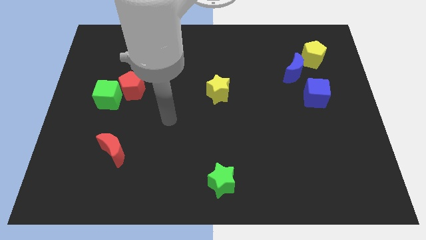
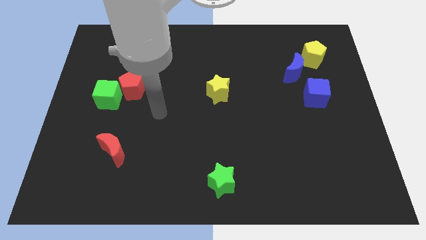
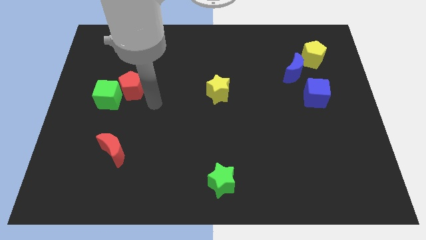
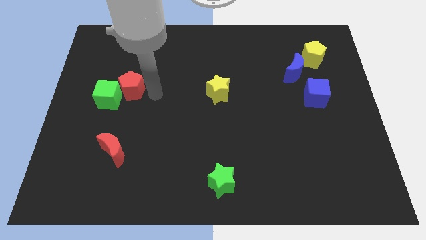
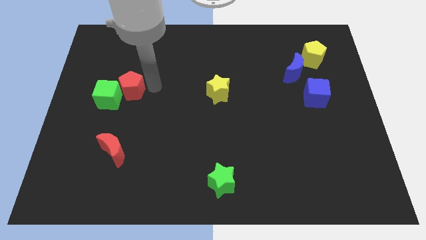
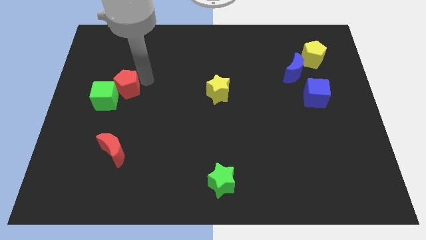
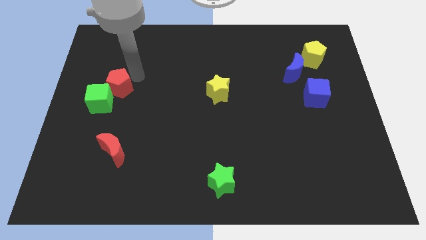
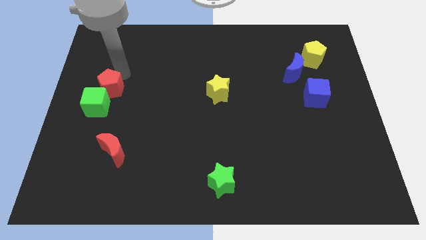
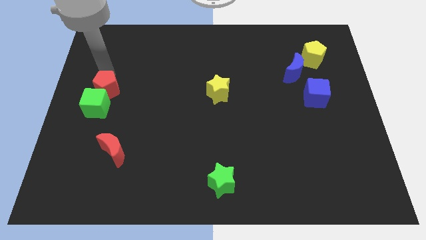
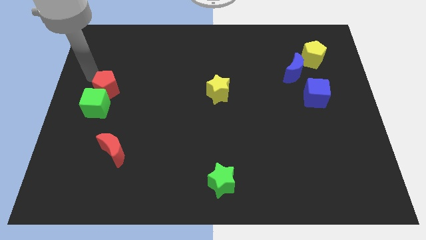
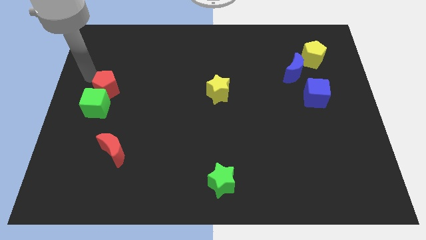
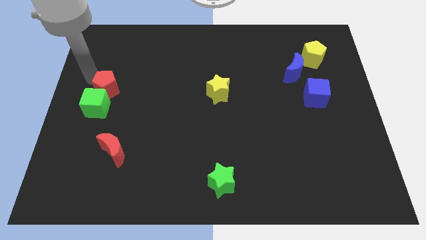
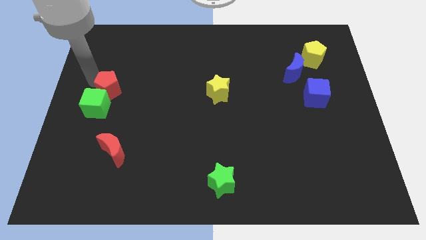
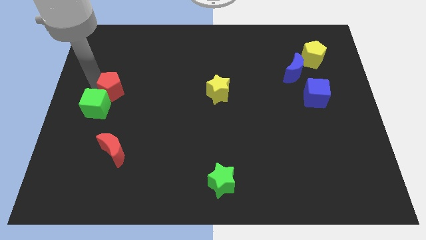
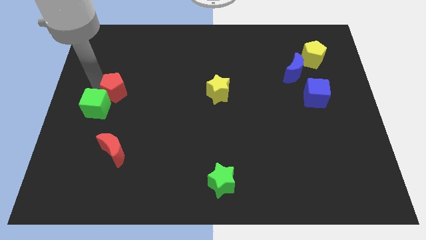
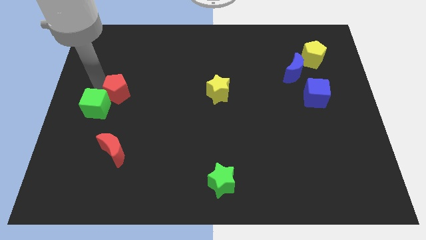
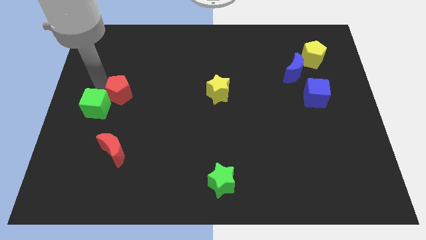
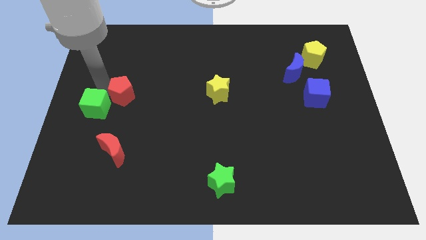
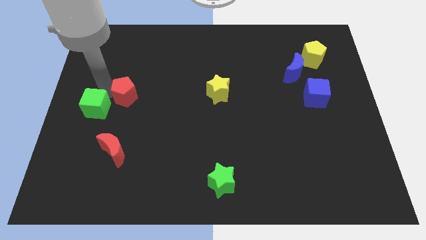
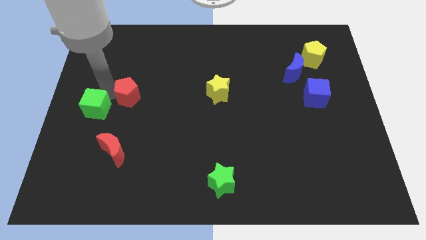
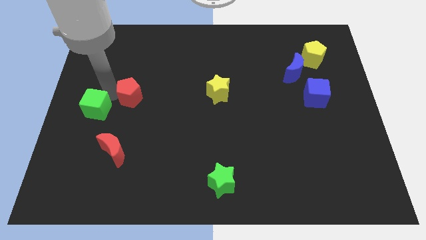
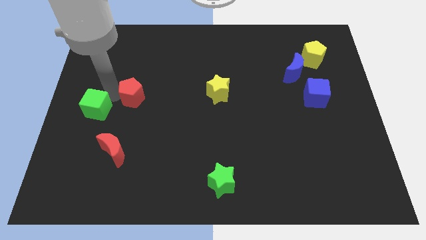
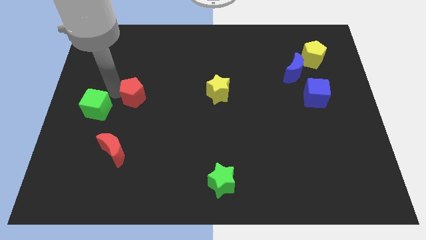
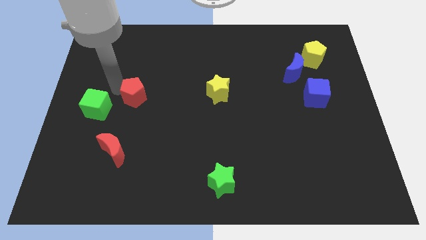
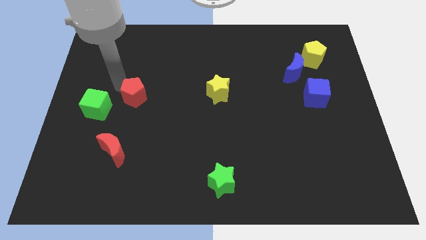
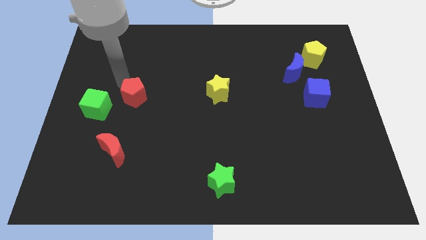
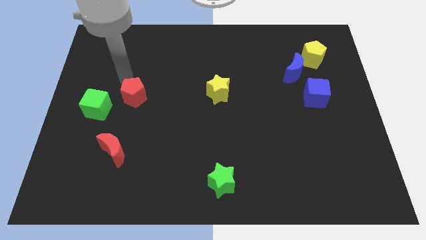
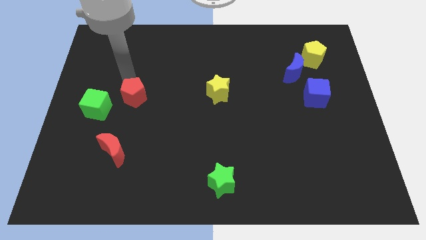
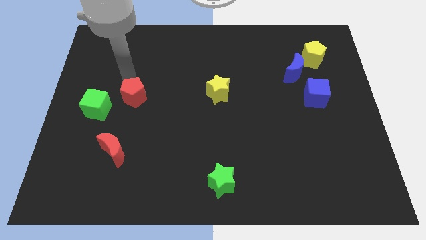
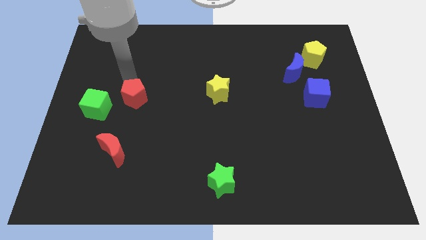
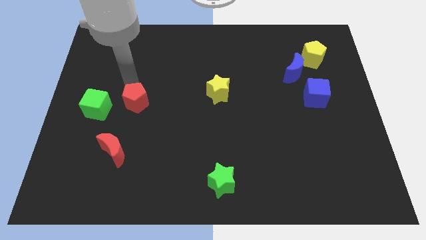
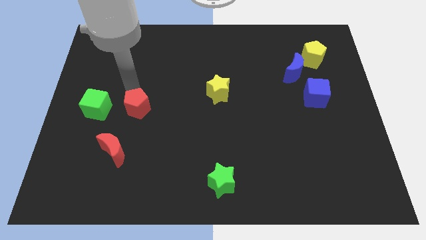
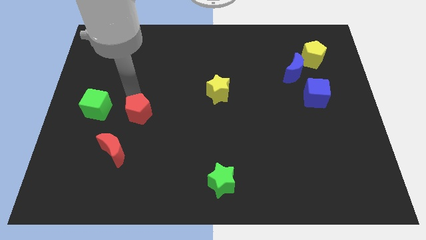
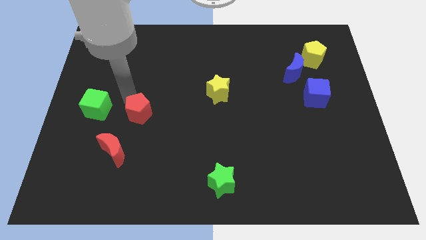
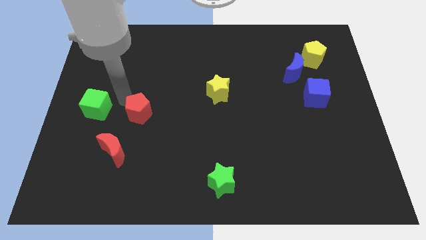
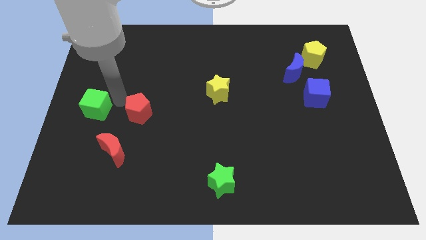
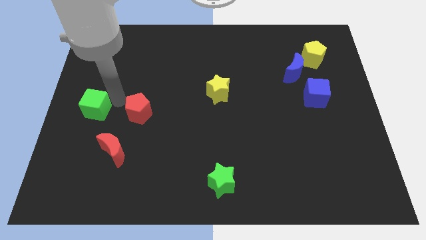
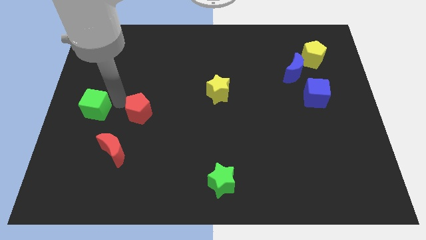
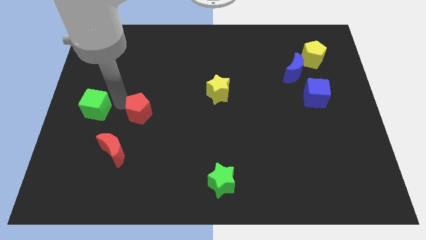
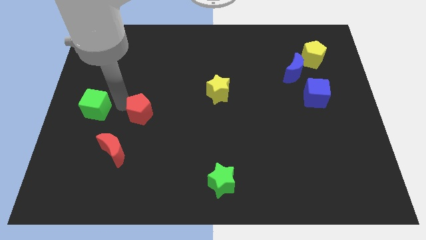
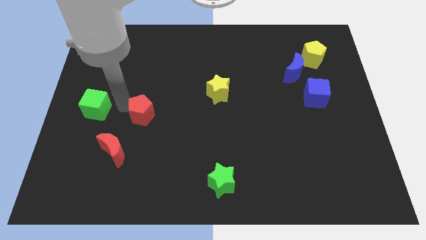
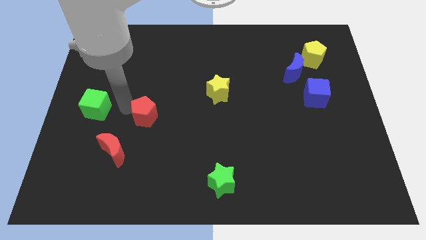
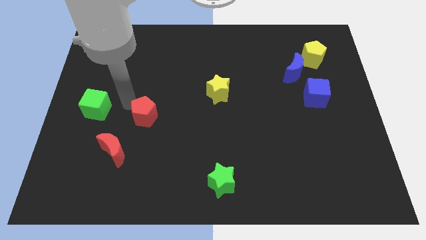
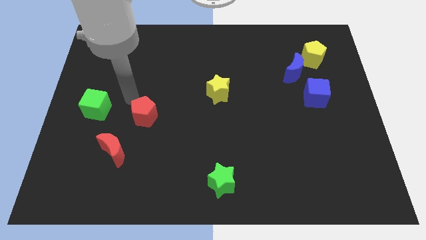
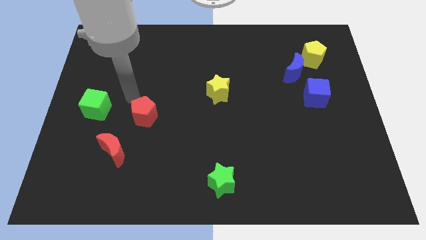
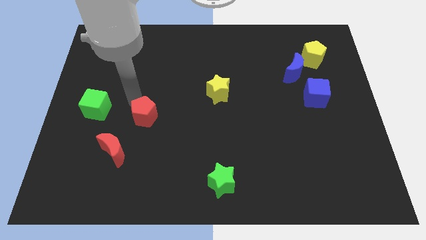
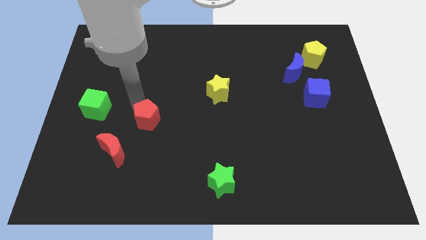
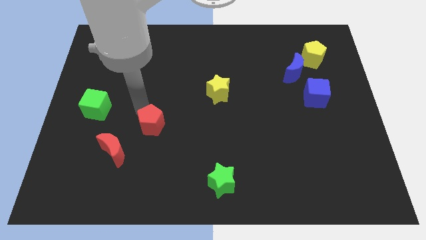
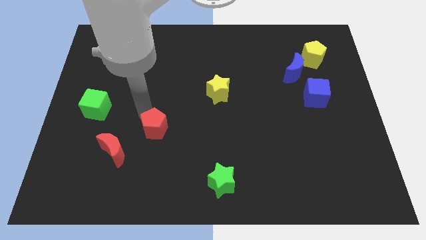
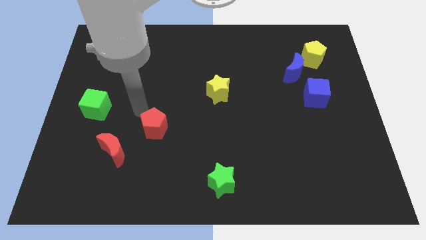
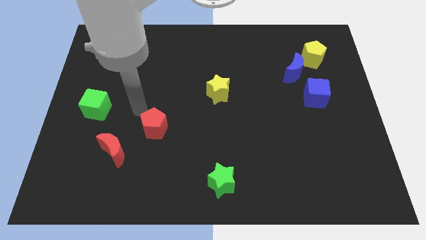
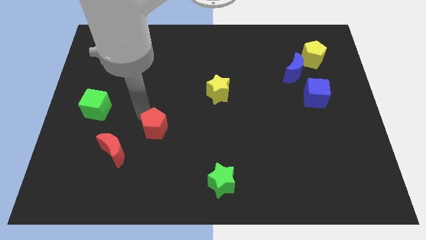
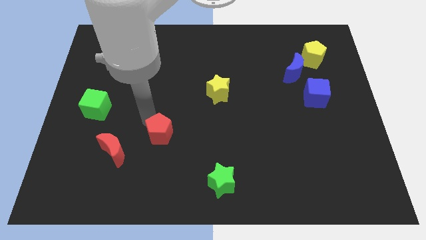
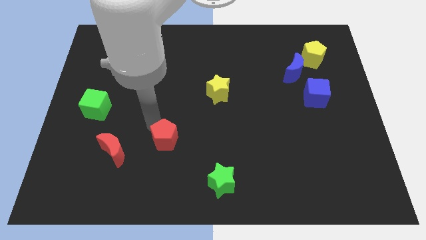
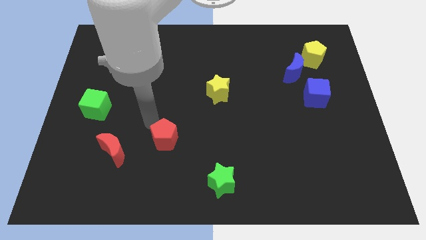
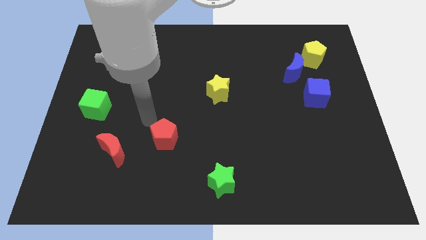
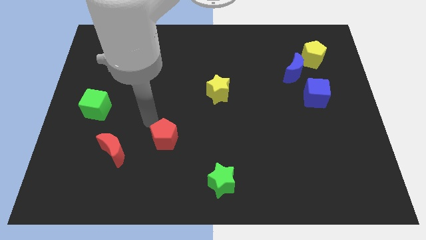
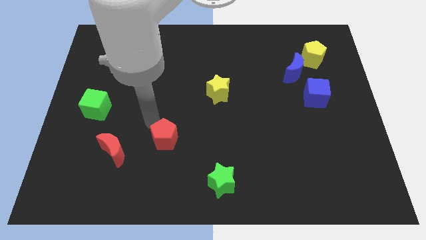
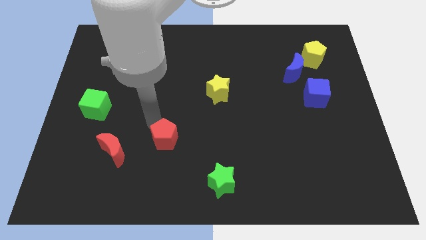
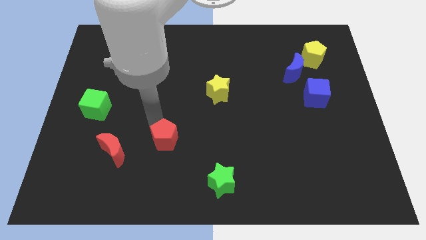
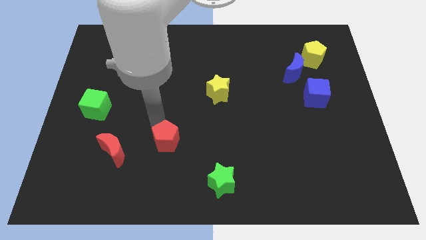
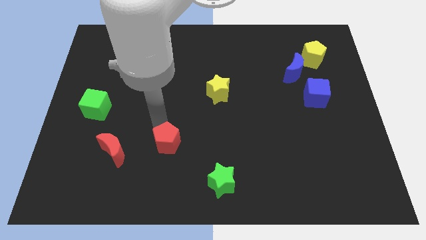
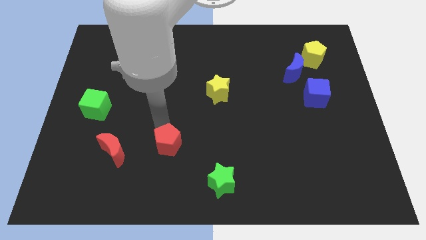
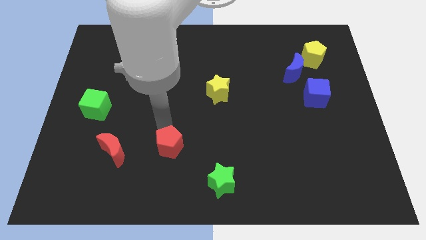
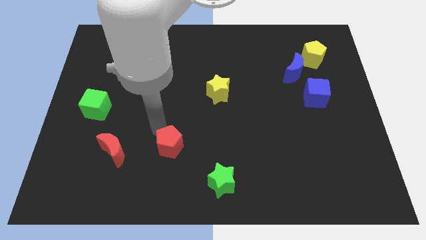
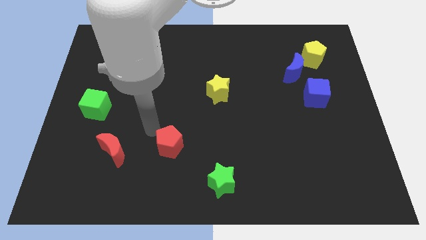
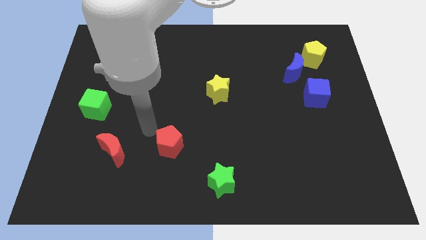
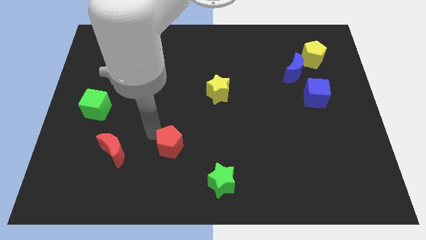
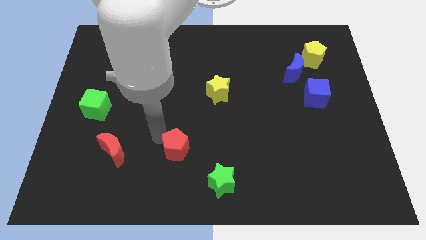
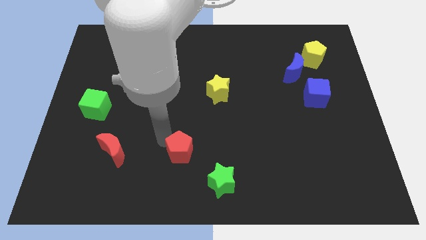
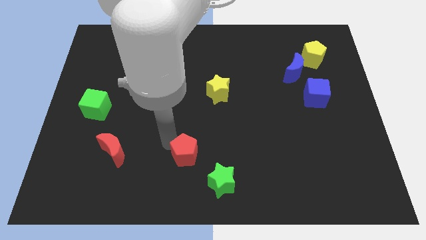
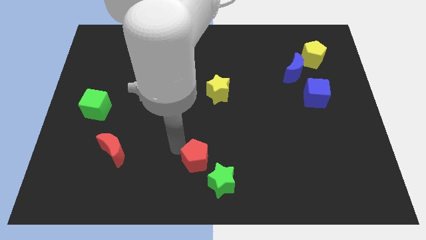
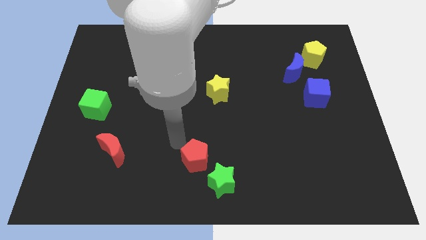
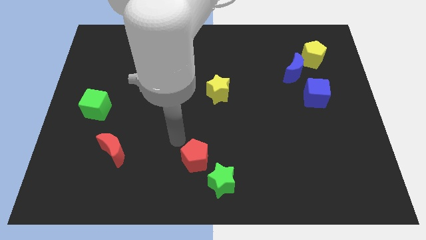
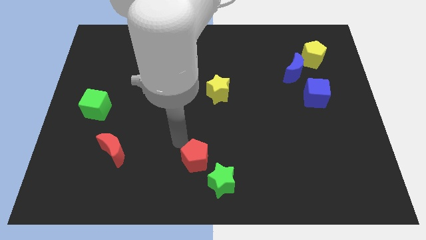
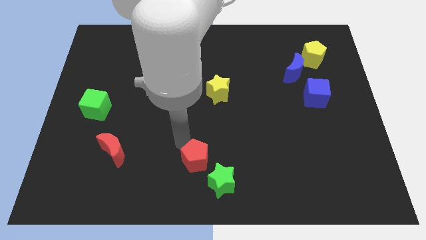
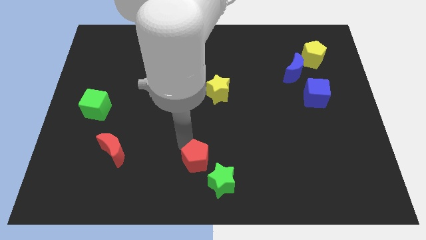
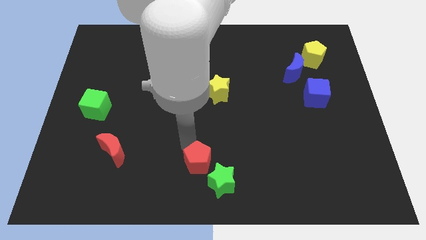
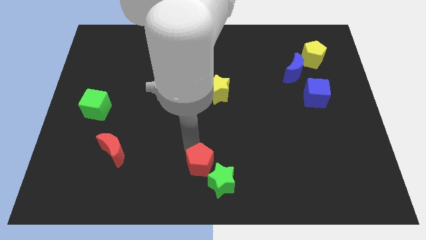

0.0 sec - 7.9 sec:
move the red pentagon next to the green star

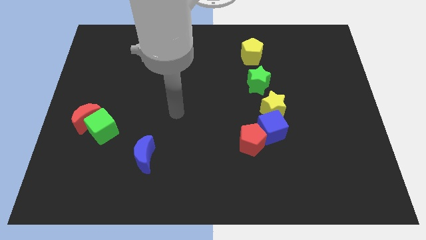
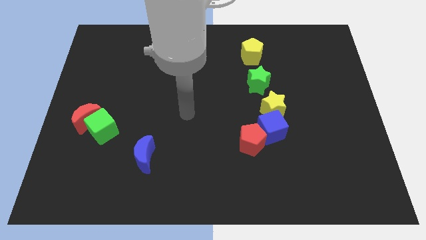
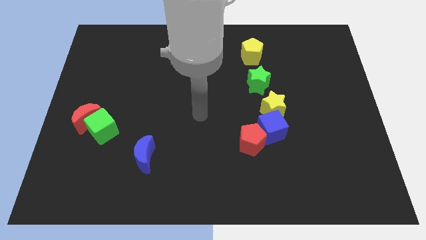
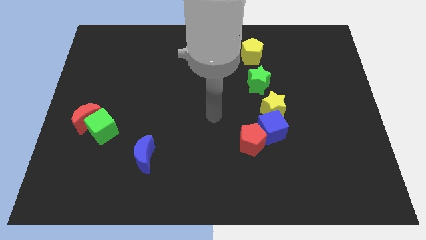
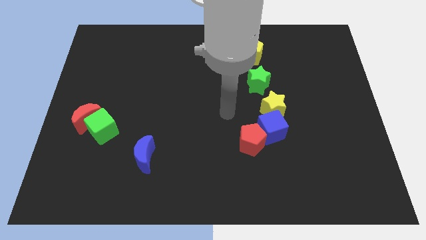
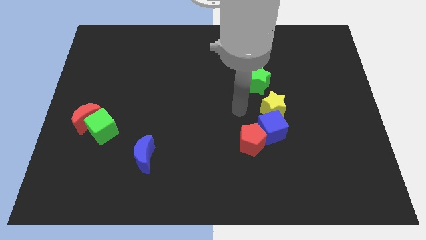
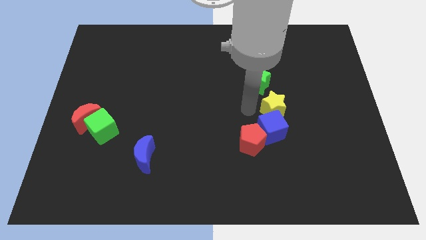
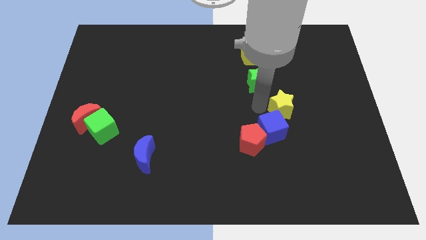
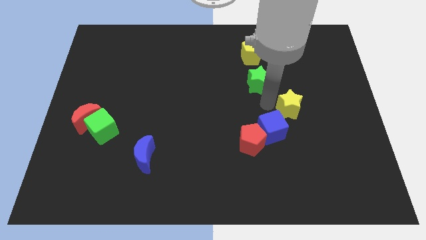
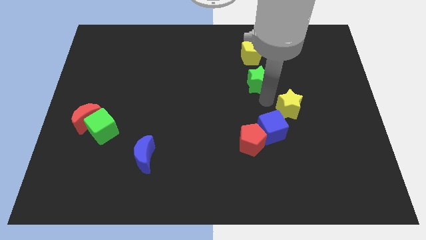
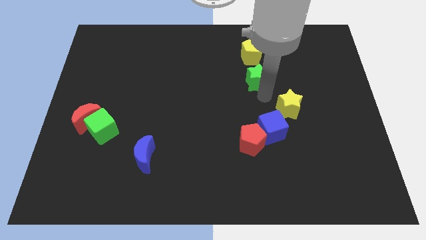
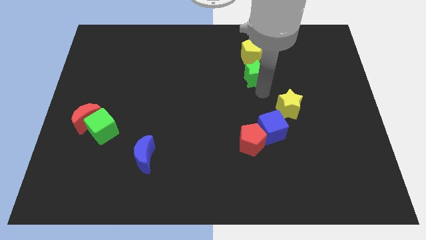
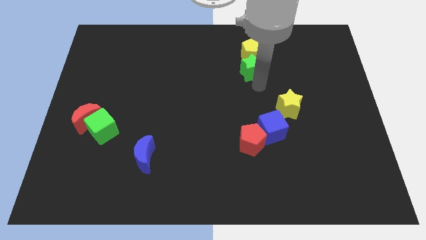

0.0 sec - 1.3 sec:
slide the green star towards the yellow pentagon
